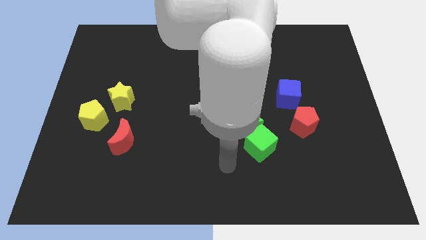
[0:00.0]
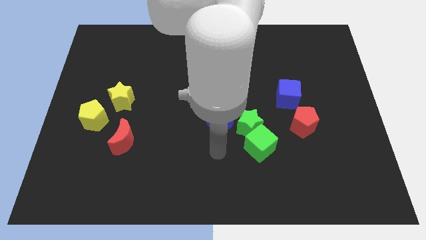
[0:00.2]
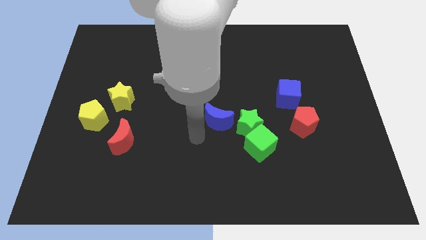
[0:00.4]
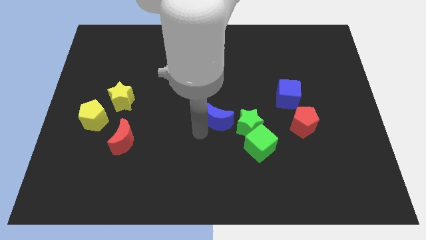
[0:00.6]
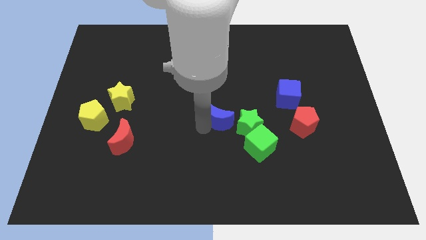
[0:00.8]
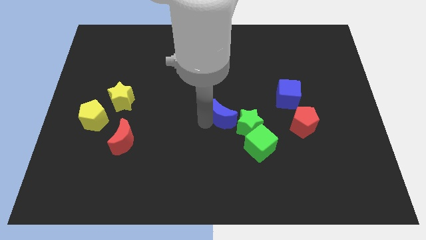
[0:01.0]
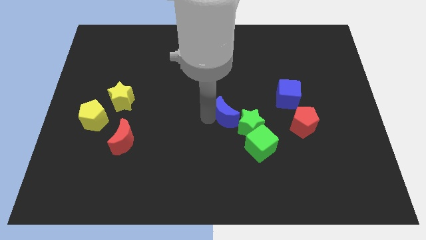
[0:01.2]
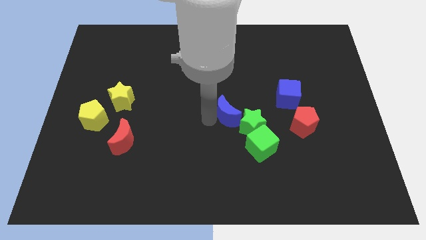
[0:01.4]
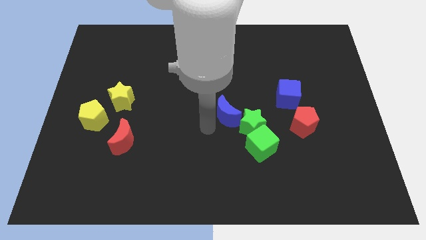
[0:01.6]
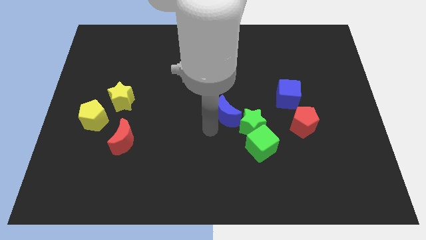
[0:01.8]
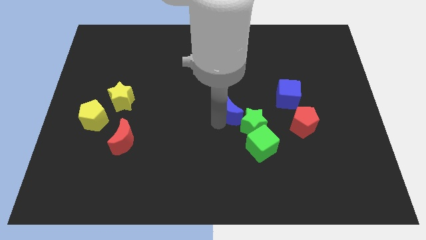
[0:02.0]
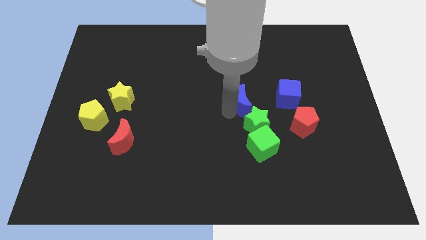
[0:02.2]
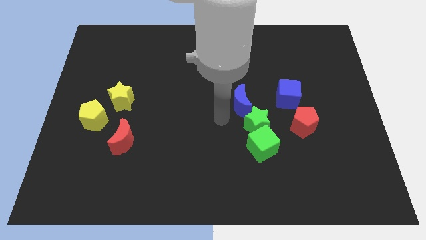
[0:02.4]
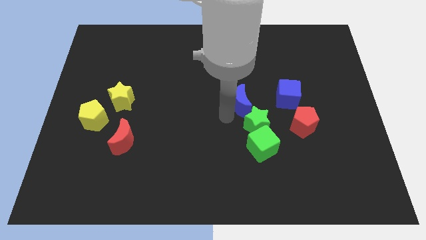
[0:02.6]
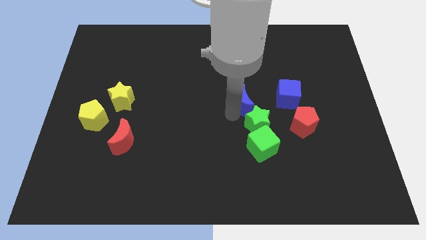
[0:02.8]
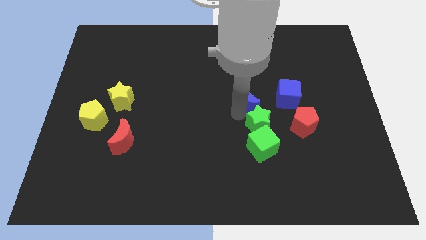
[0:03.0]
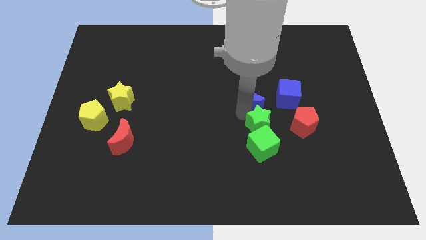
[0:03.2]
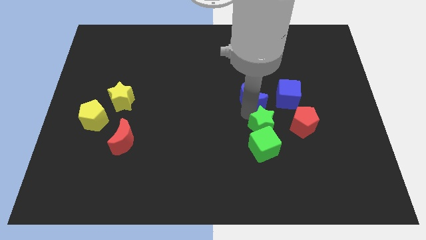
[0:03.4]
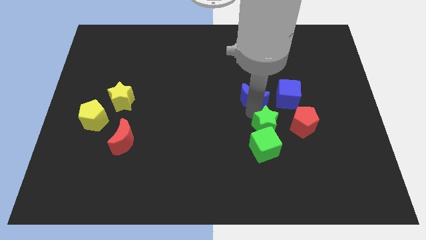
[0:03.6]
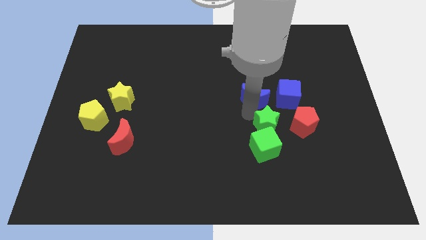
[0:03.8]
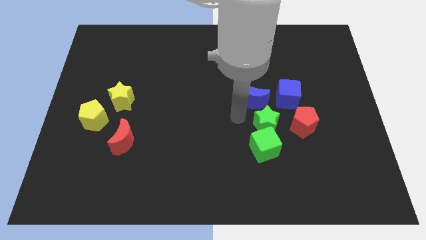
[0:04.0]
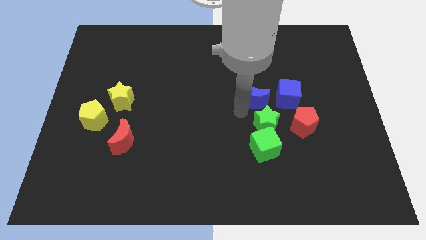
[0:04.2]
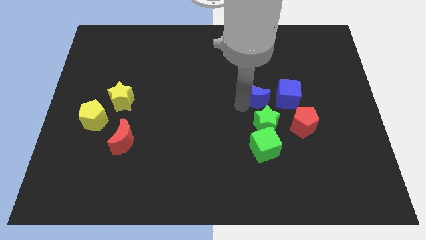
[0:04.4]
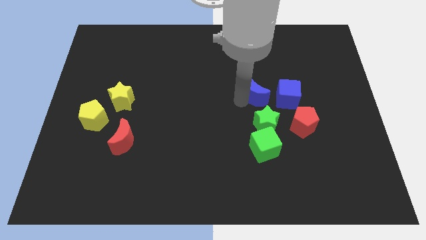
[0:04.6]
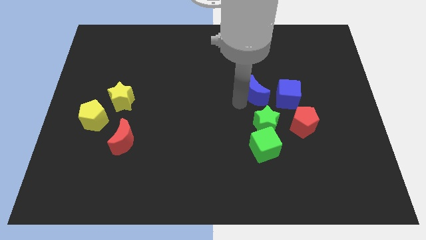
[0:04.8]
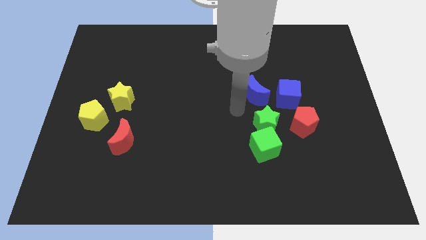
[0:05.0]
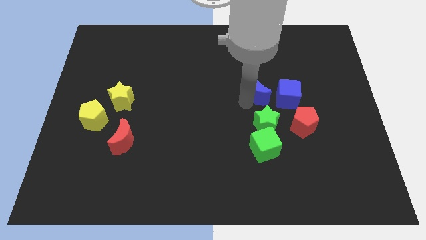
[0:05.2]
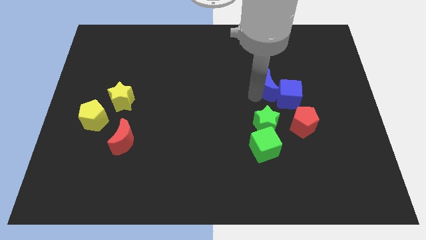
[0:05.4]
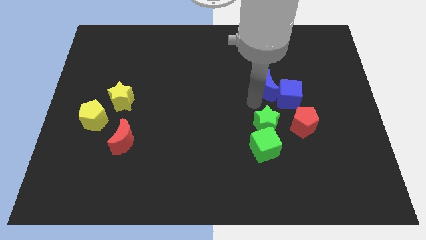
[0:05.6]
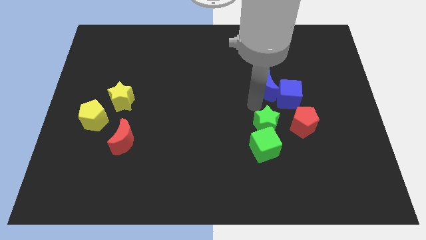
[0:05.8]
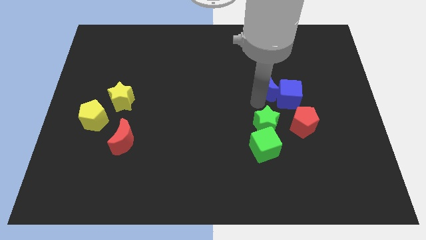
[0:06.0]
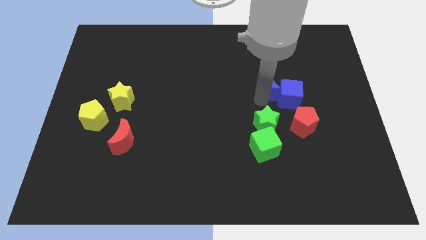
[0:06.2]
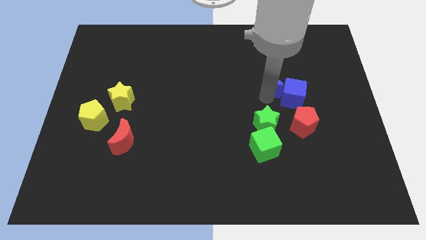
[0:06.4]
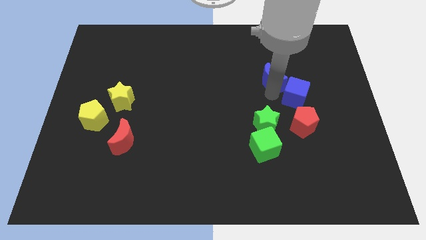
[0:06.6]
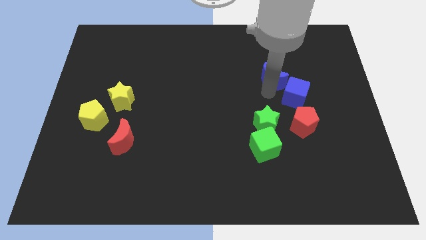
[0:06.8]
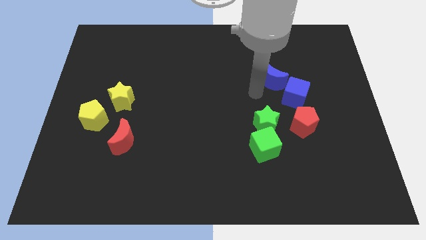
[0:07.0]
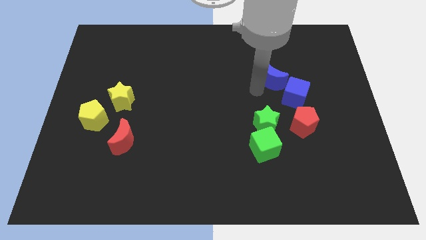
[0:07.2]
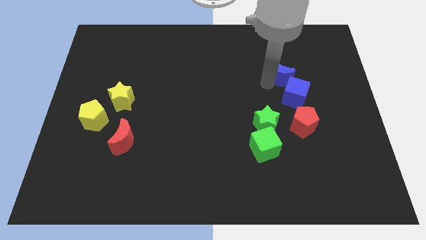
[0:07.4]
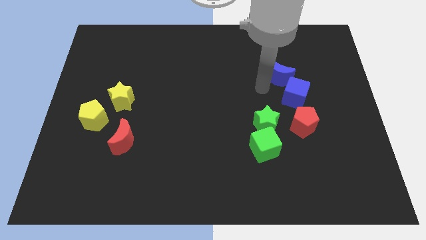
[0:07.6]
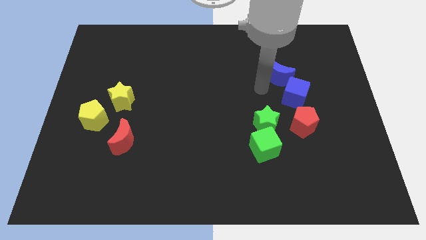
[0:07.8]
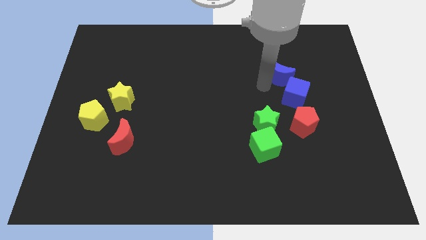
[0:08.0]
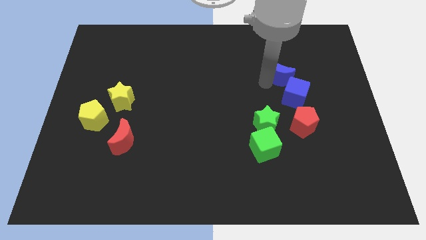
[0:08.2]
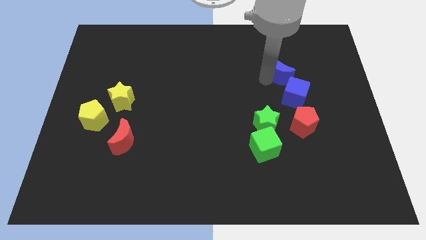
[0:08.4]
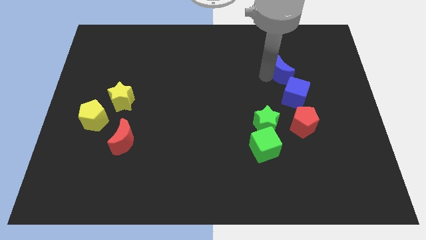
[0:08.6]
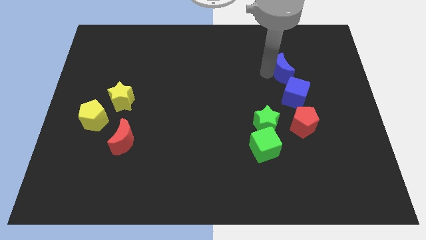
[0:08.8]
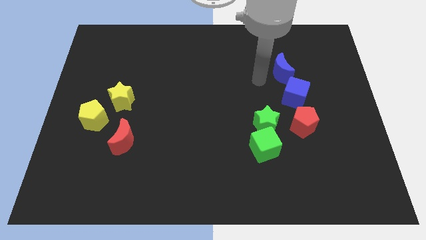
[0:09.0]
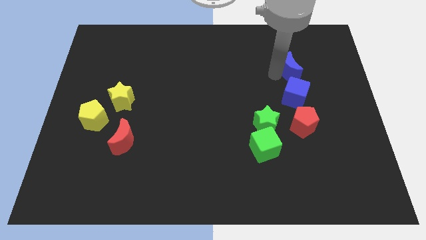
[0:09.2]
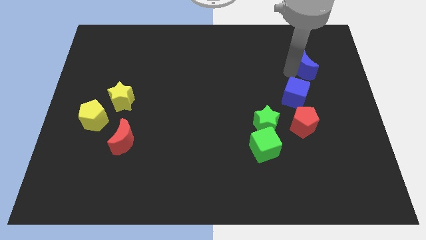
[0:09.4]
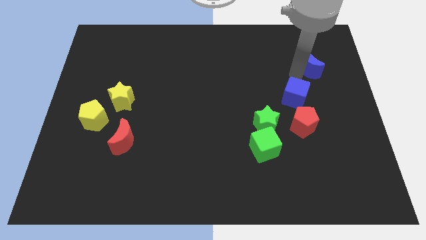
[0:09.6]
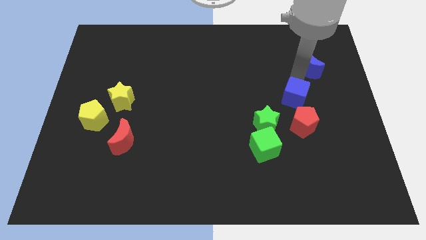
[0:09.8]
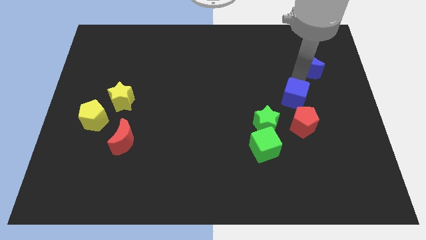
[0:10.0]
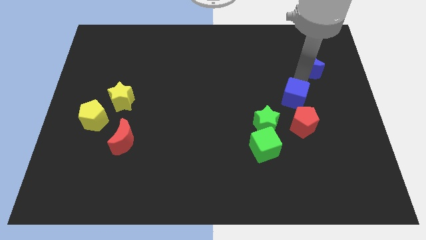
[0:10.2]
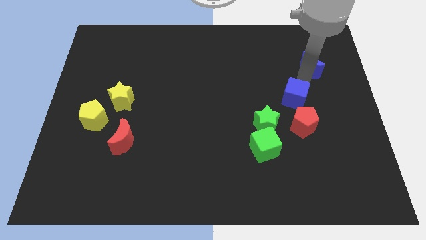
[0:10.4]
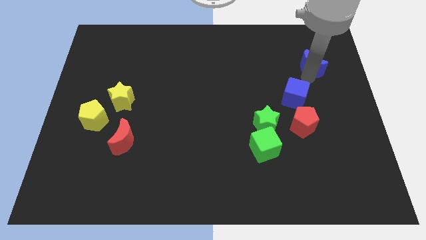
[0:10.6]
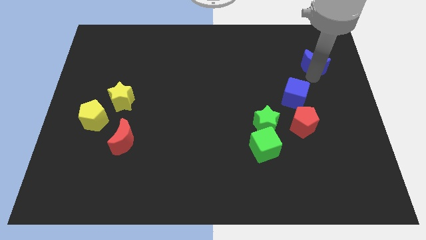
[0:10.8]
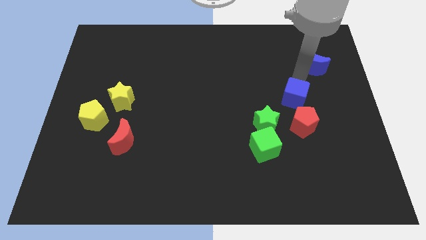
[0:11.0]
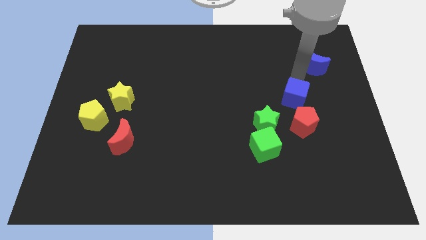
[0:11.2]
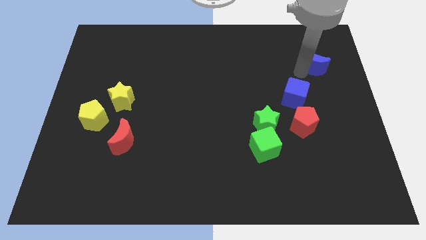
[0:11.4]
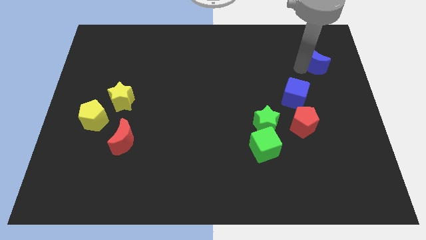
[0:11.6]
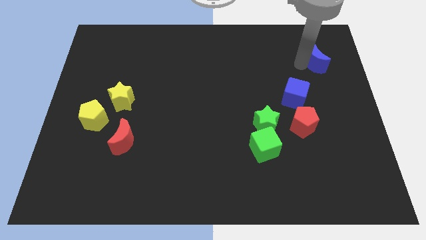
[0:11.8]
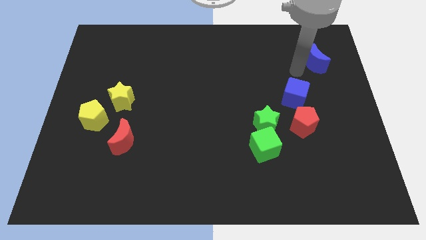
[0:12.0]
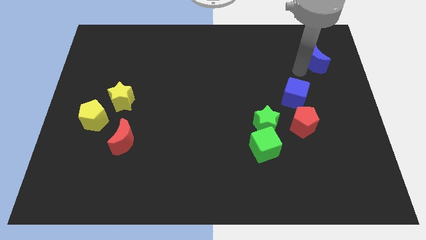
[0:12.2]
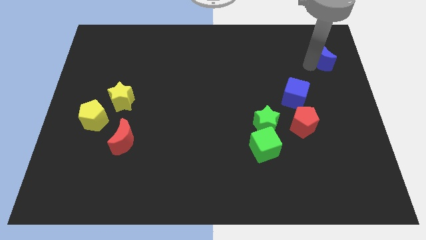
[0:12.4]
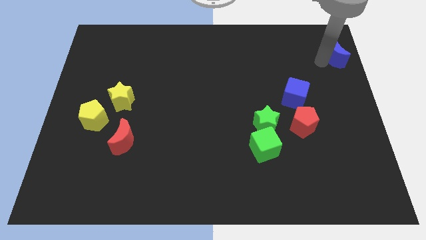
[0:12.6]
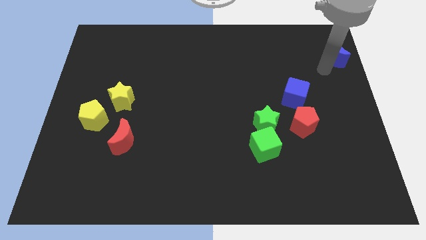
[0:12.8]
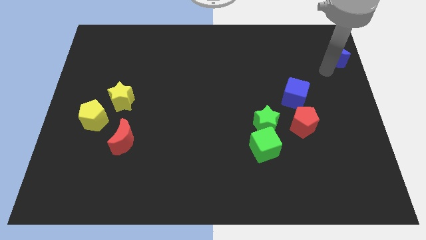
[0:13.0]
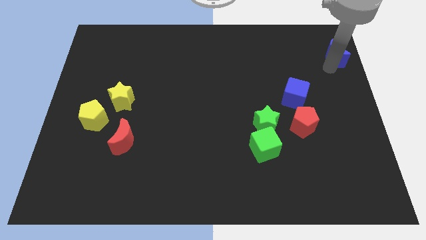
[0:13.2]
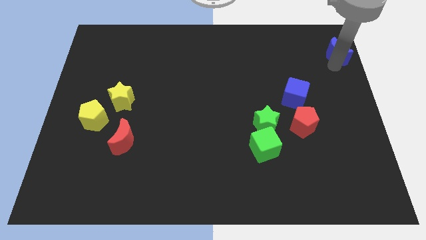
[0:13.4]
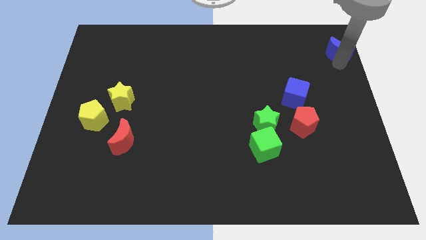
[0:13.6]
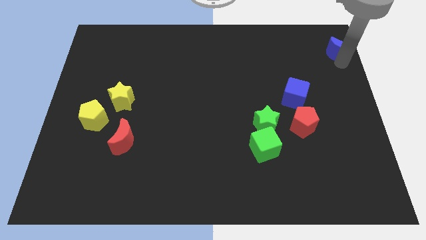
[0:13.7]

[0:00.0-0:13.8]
put the blue moon to the top right of the board
